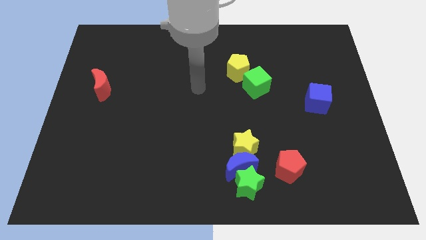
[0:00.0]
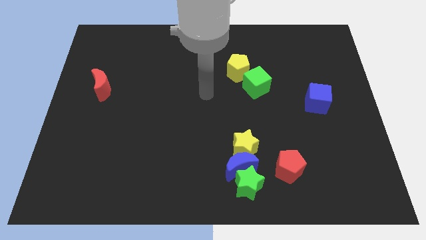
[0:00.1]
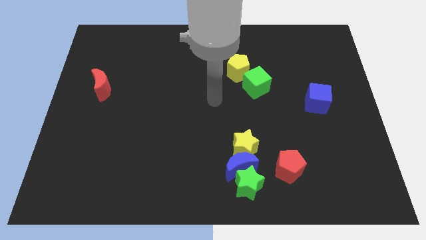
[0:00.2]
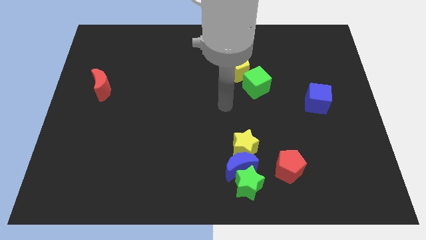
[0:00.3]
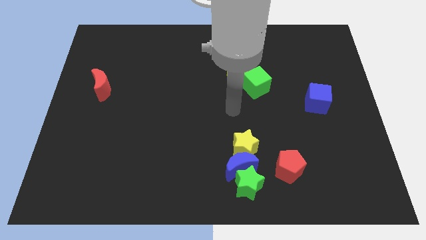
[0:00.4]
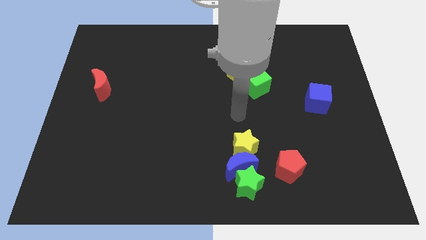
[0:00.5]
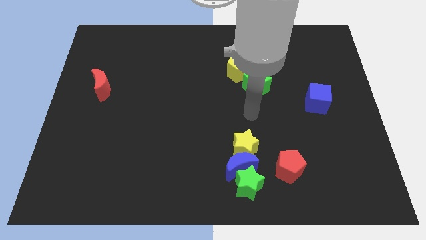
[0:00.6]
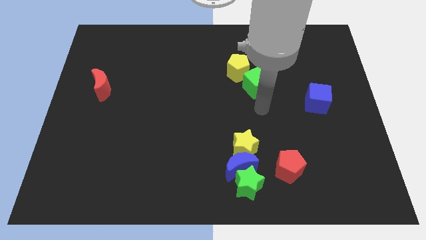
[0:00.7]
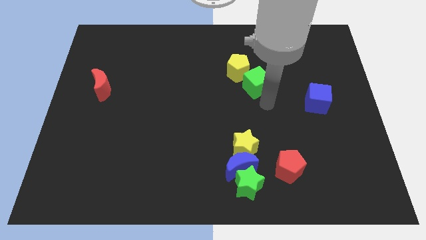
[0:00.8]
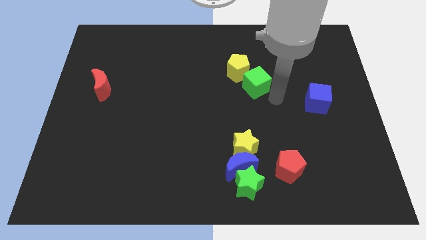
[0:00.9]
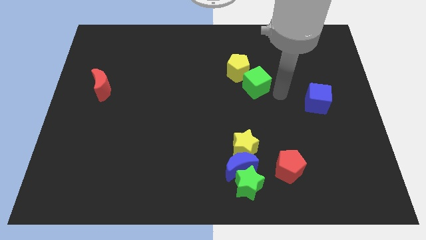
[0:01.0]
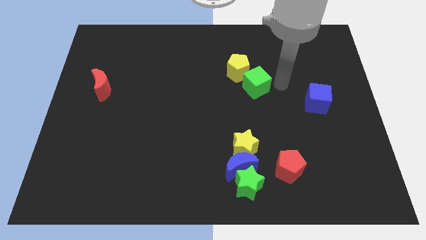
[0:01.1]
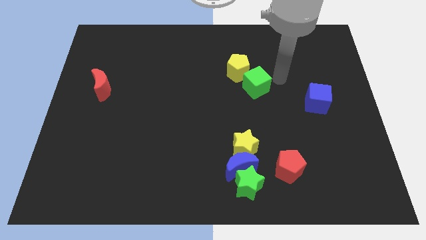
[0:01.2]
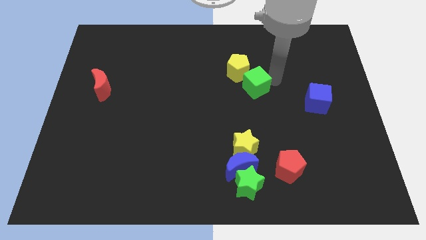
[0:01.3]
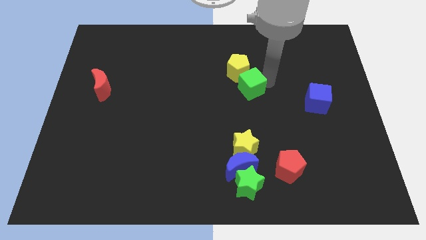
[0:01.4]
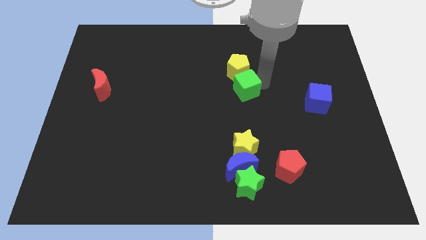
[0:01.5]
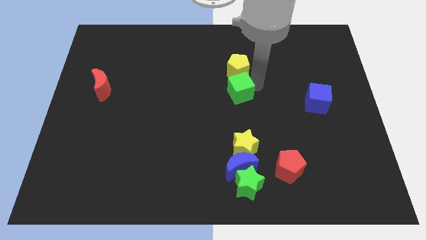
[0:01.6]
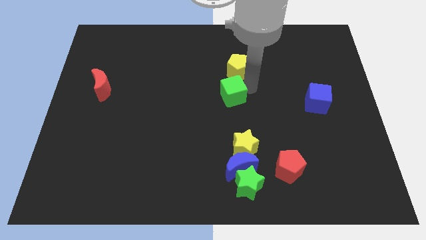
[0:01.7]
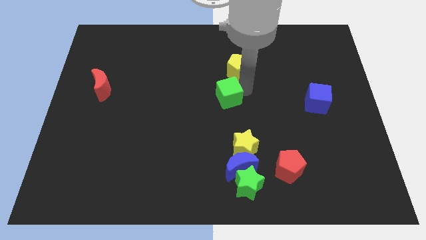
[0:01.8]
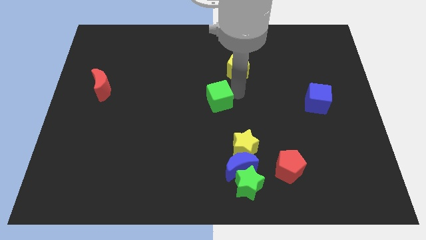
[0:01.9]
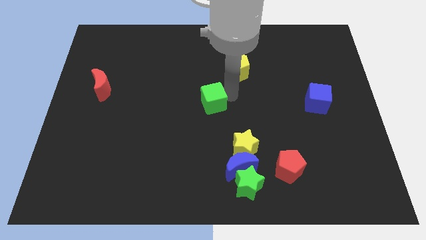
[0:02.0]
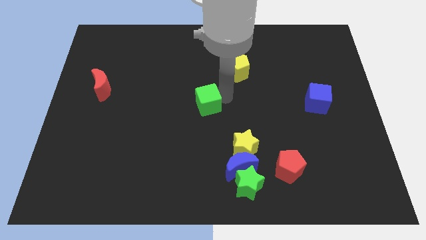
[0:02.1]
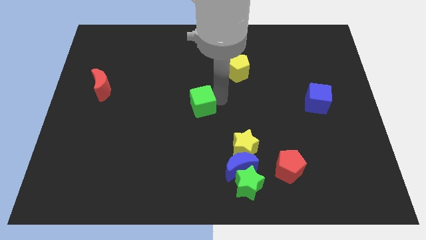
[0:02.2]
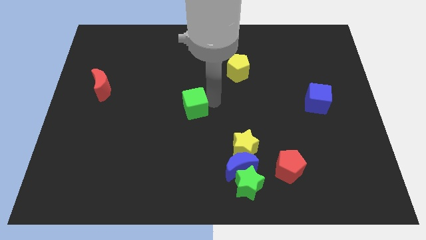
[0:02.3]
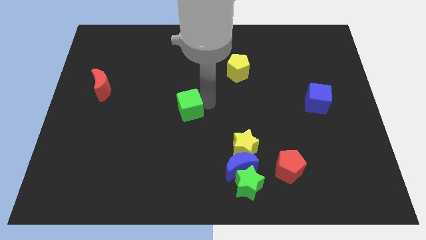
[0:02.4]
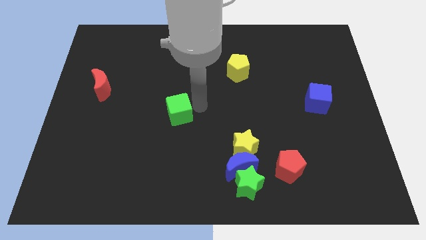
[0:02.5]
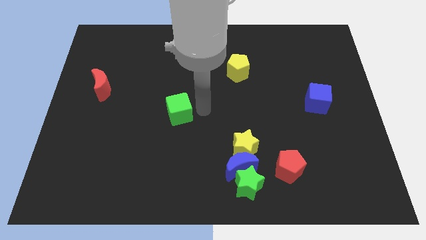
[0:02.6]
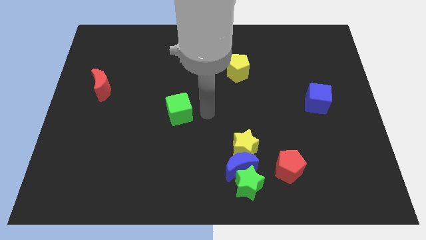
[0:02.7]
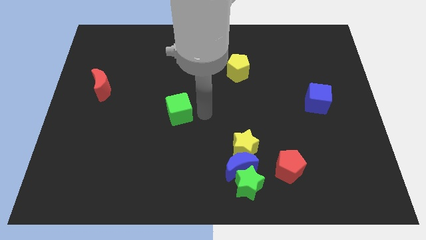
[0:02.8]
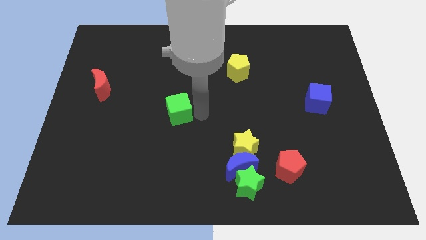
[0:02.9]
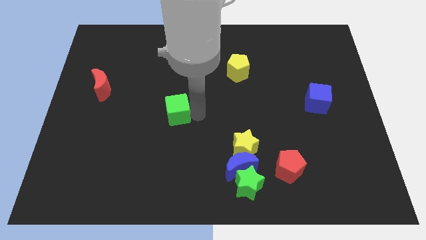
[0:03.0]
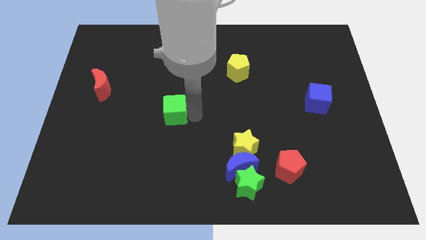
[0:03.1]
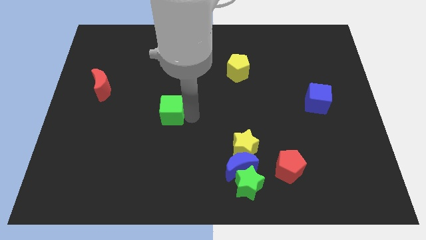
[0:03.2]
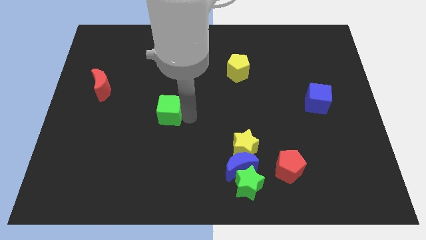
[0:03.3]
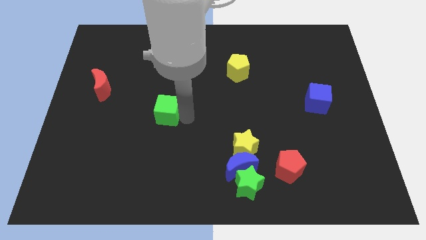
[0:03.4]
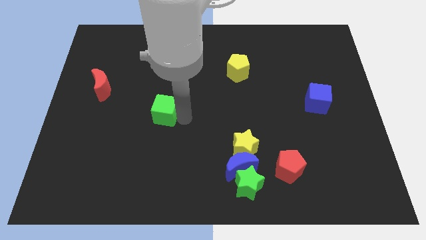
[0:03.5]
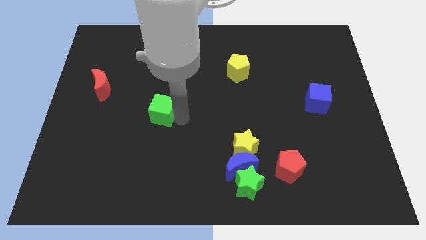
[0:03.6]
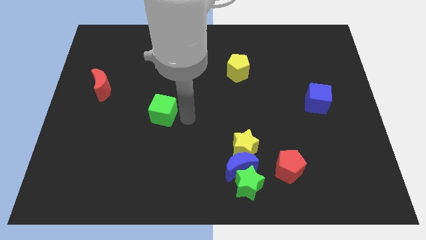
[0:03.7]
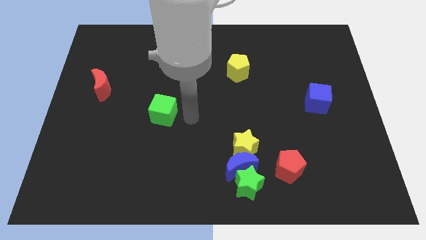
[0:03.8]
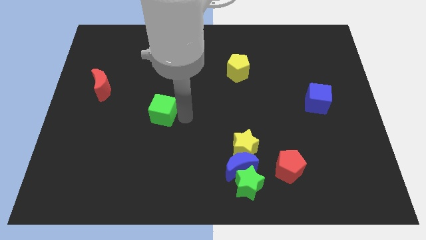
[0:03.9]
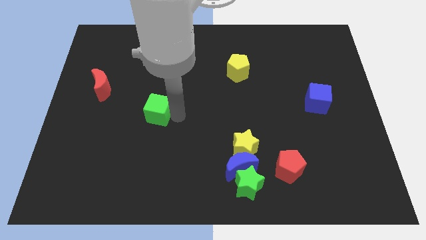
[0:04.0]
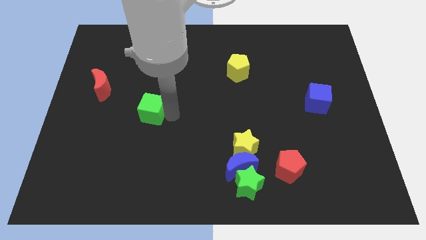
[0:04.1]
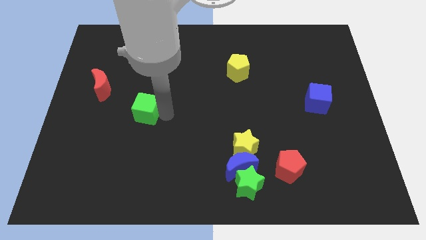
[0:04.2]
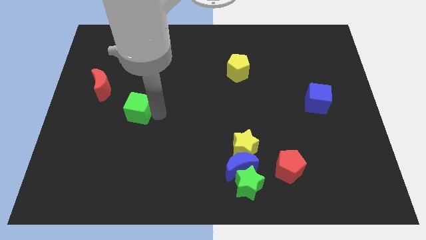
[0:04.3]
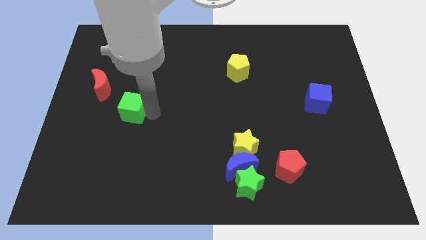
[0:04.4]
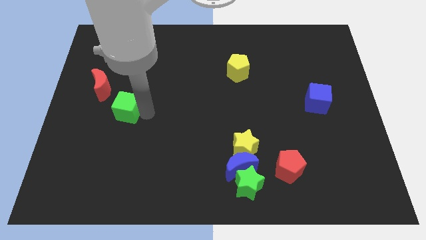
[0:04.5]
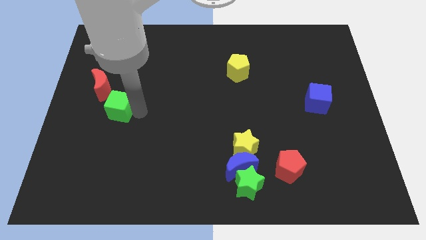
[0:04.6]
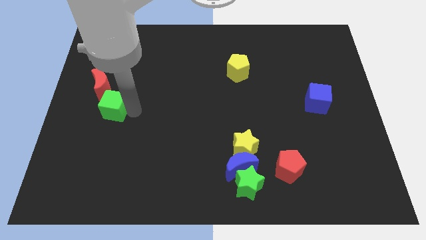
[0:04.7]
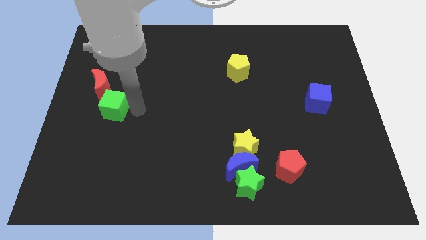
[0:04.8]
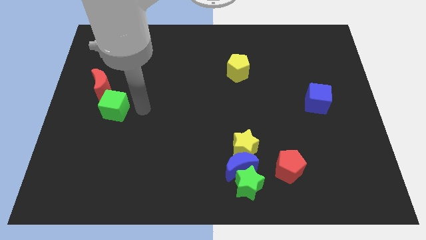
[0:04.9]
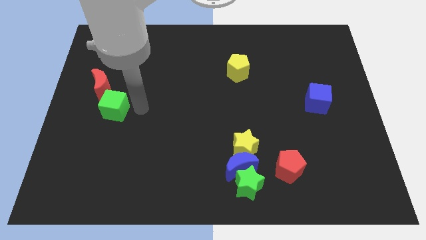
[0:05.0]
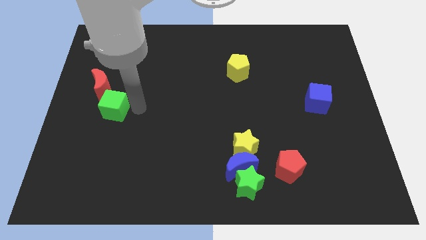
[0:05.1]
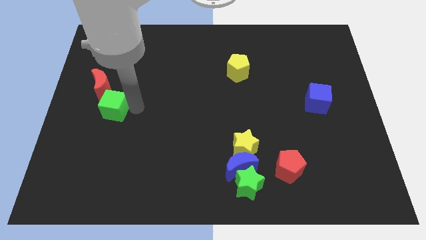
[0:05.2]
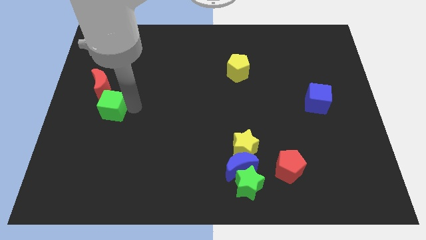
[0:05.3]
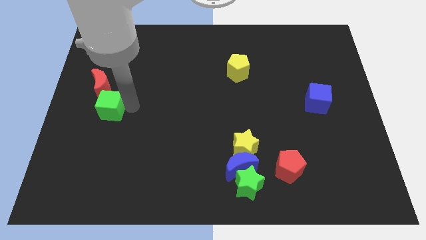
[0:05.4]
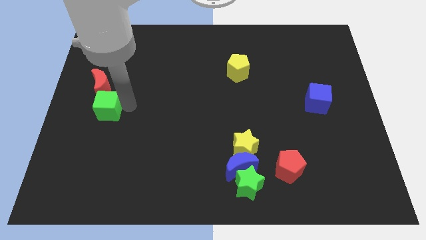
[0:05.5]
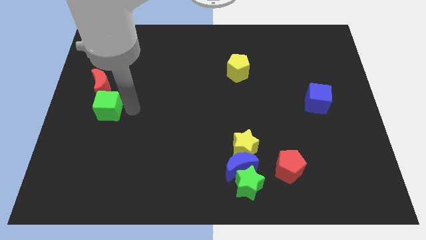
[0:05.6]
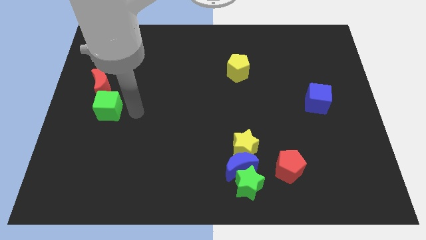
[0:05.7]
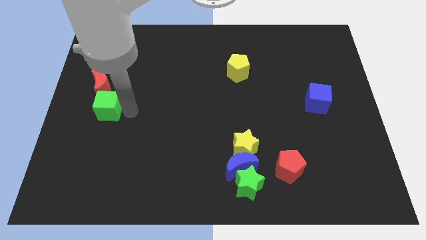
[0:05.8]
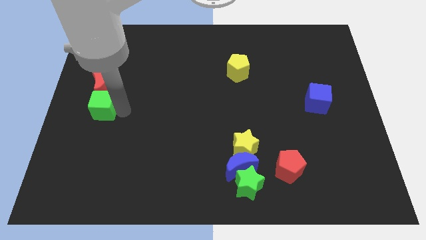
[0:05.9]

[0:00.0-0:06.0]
slide the green cube to the left side of the board

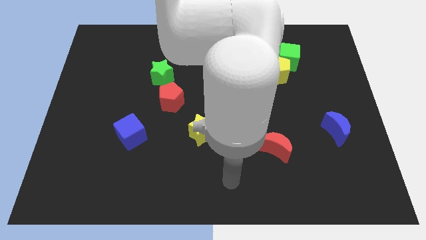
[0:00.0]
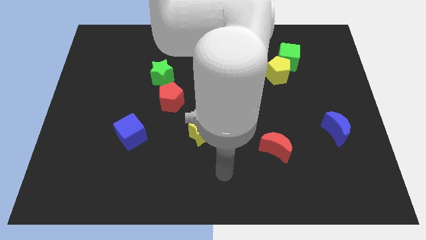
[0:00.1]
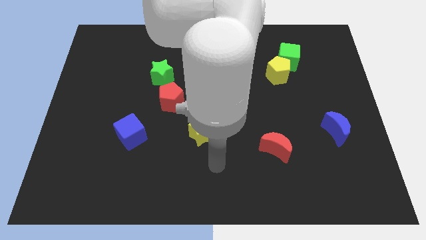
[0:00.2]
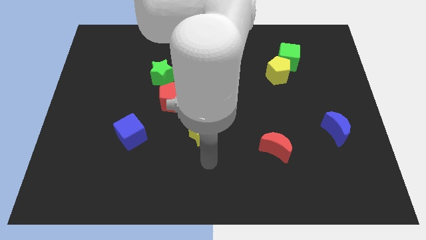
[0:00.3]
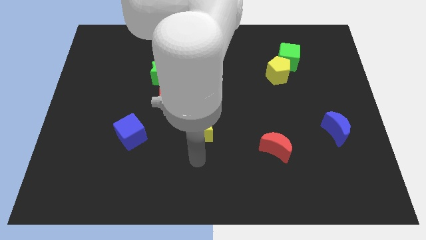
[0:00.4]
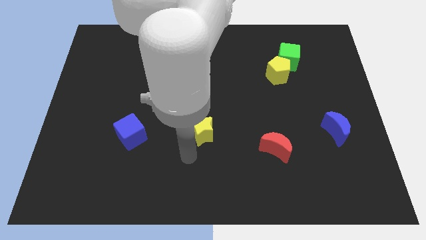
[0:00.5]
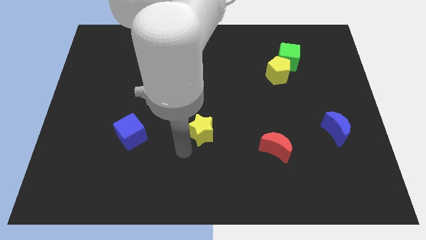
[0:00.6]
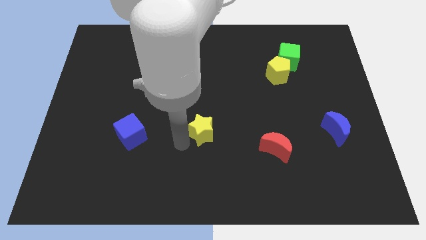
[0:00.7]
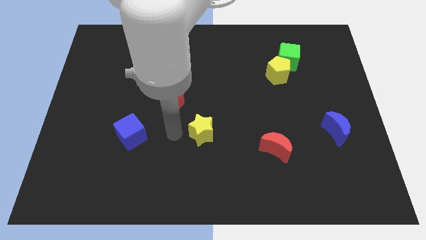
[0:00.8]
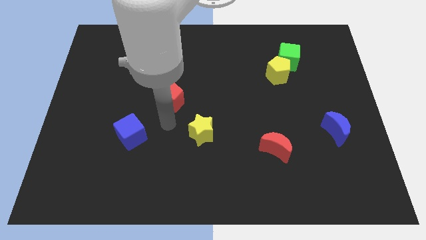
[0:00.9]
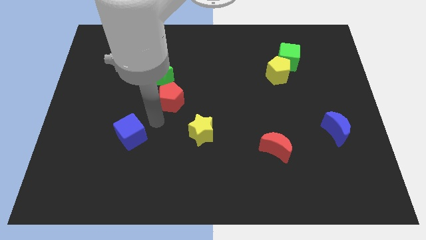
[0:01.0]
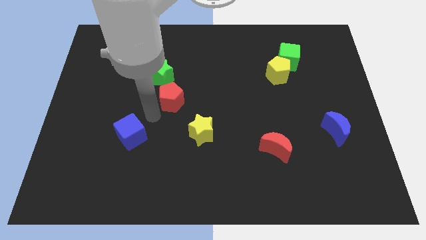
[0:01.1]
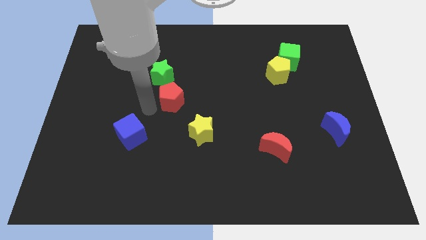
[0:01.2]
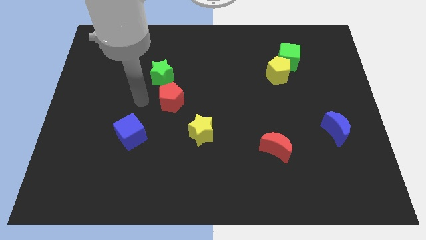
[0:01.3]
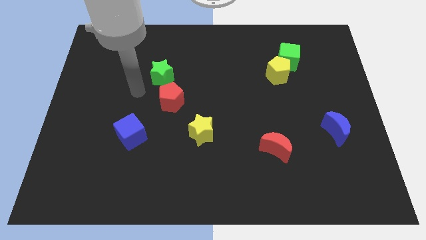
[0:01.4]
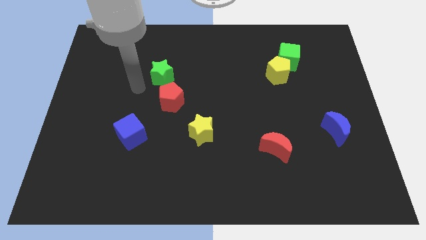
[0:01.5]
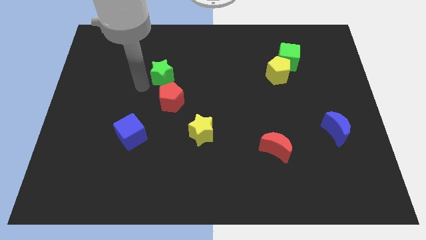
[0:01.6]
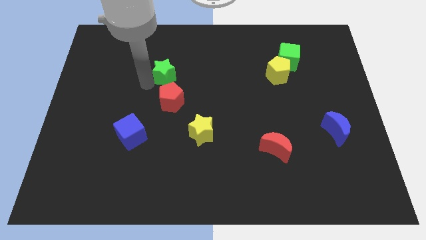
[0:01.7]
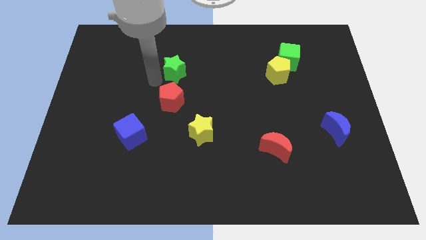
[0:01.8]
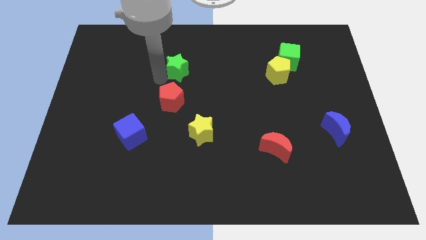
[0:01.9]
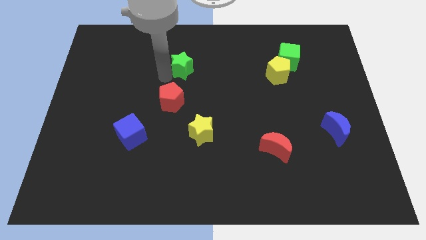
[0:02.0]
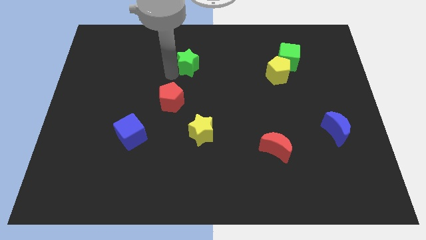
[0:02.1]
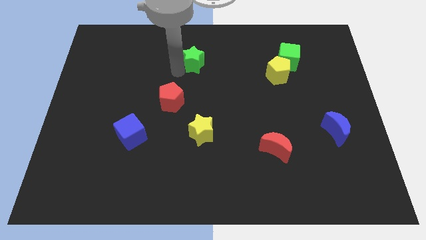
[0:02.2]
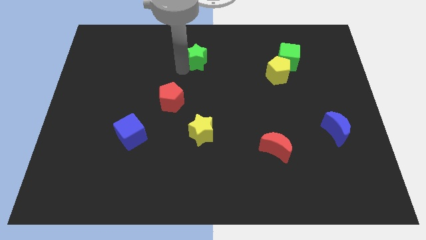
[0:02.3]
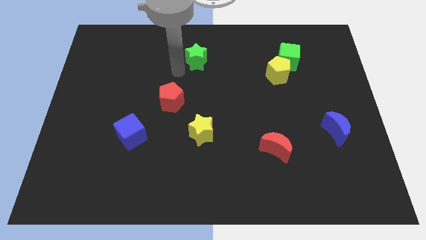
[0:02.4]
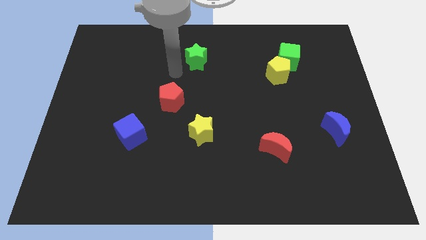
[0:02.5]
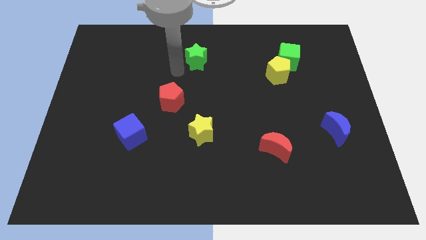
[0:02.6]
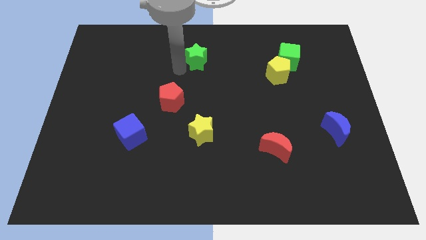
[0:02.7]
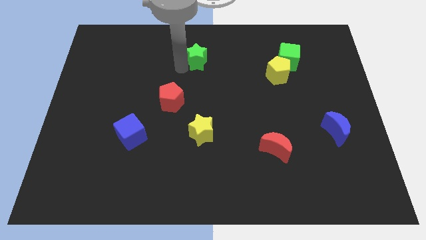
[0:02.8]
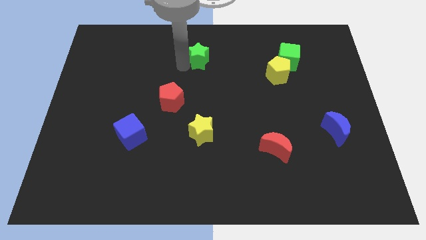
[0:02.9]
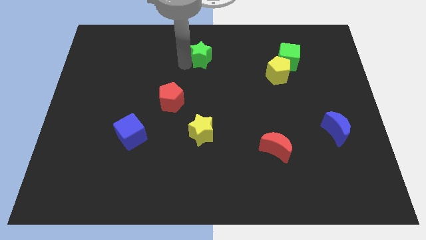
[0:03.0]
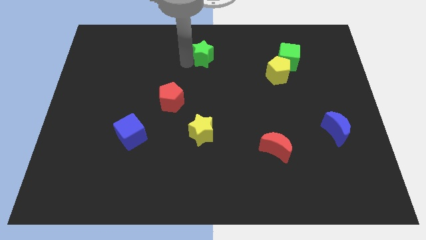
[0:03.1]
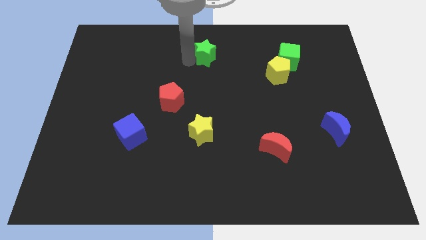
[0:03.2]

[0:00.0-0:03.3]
push the green star to the top
